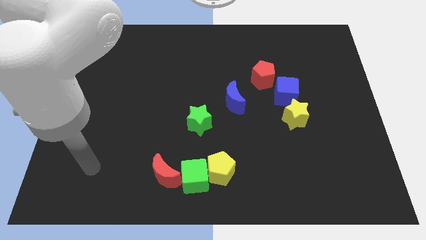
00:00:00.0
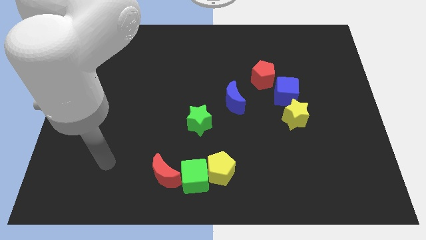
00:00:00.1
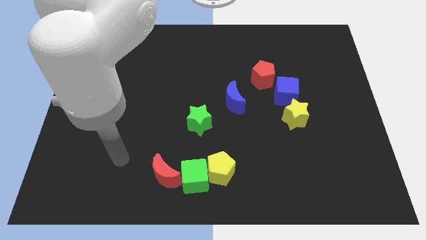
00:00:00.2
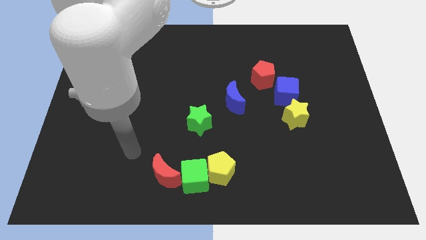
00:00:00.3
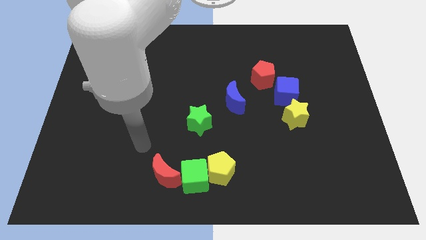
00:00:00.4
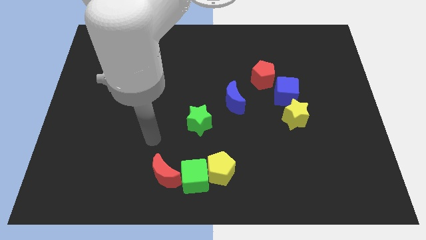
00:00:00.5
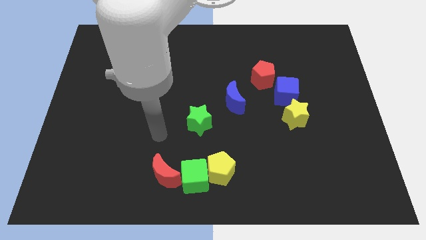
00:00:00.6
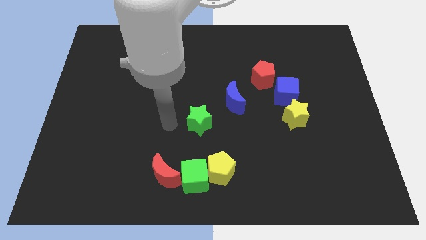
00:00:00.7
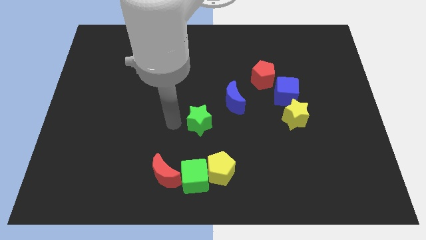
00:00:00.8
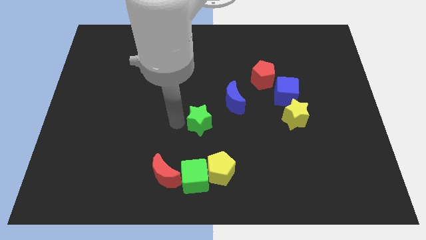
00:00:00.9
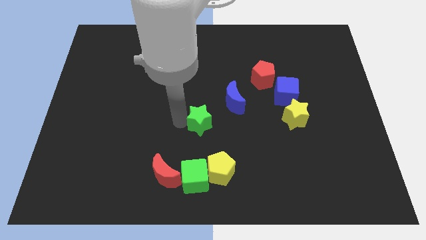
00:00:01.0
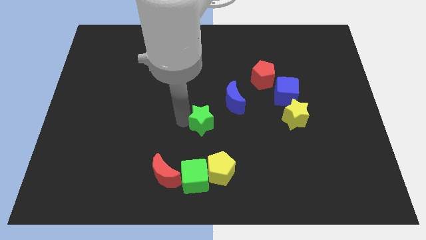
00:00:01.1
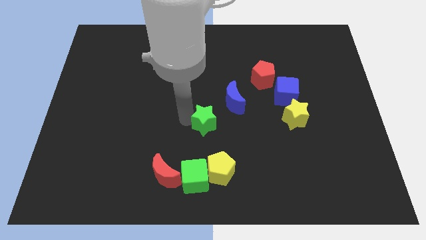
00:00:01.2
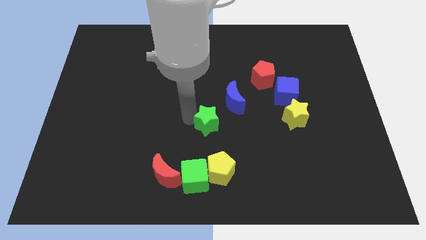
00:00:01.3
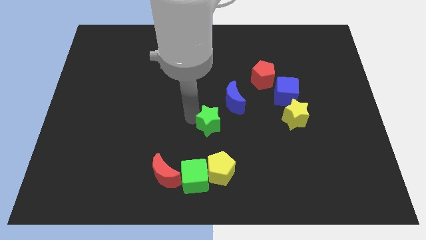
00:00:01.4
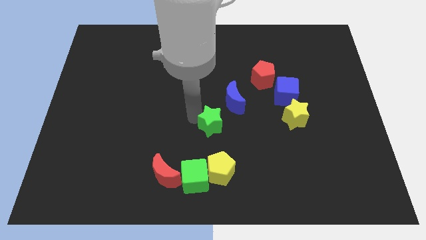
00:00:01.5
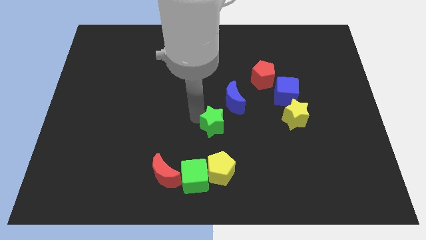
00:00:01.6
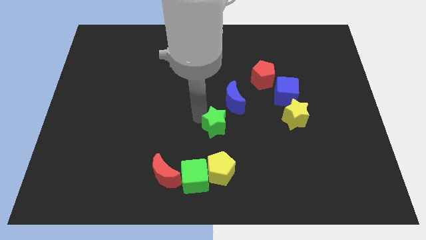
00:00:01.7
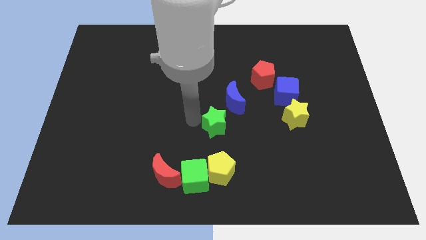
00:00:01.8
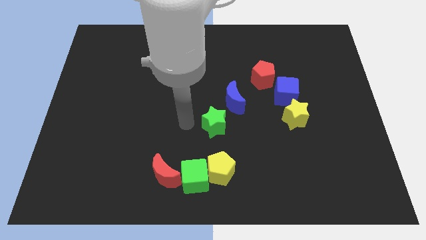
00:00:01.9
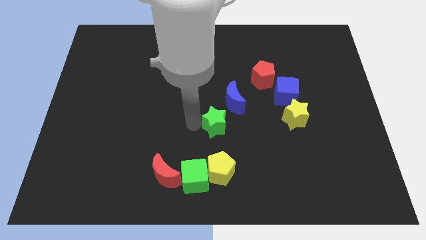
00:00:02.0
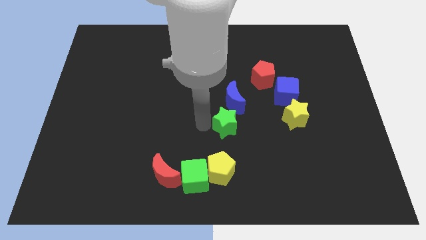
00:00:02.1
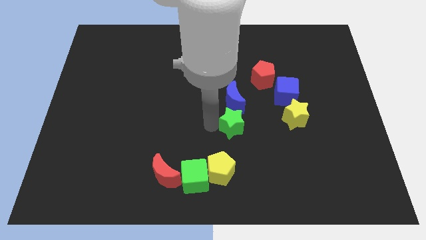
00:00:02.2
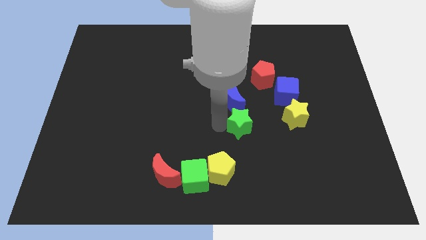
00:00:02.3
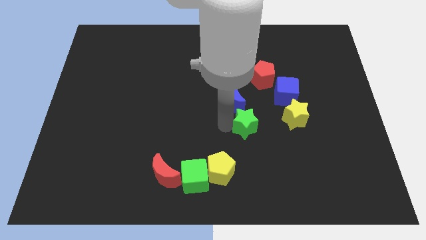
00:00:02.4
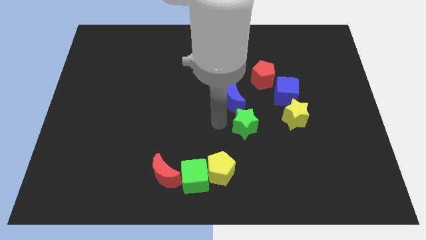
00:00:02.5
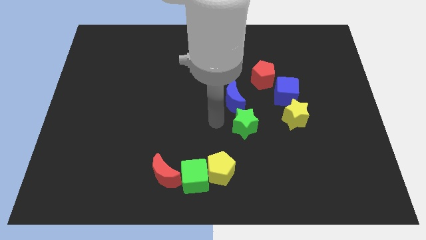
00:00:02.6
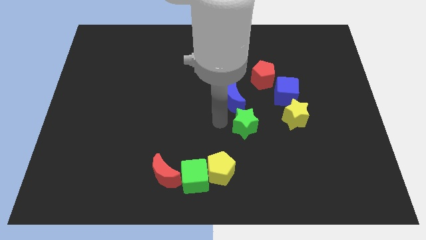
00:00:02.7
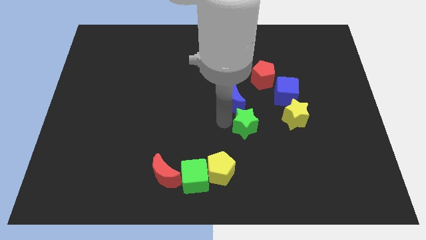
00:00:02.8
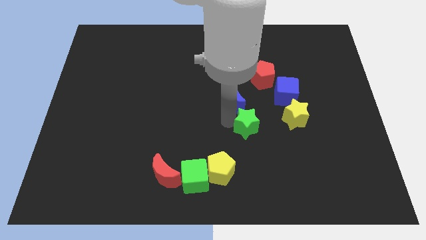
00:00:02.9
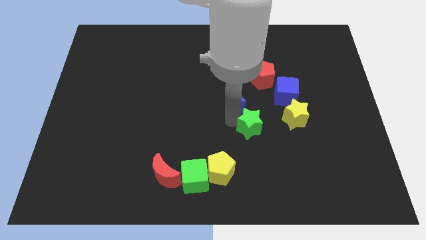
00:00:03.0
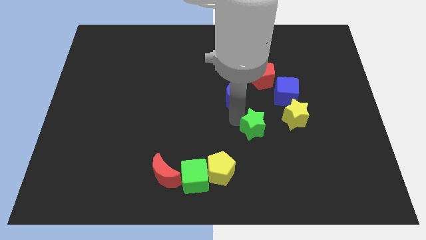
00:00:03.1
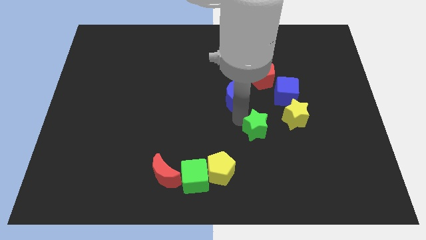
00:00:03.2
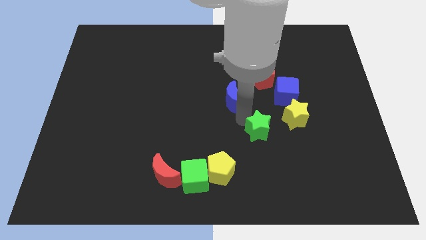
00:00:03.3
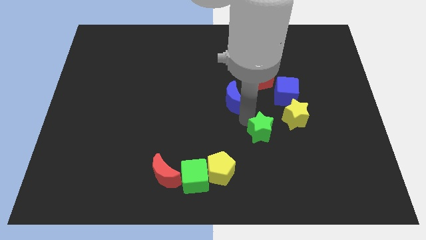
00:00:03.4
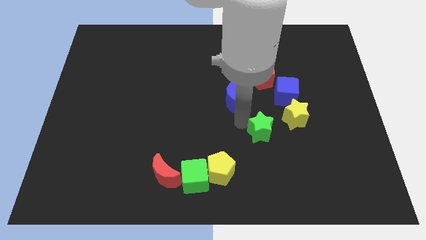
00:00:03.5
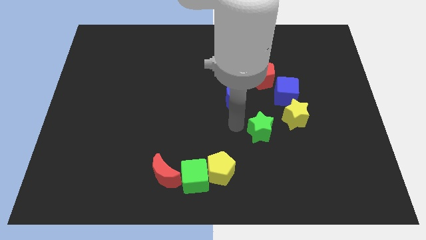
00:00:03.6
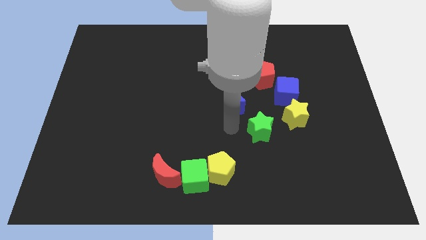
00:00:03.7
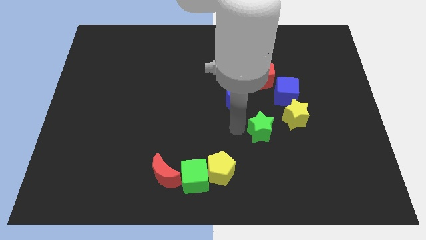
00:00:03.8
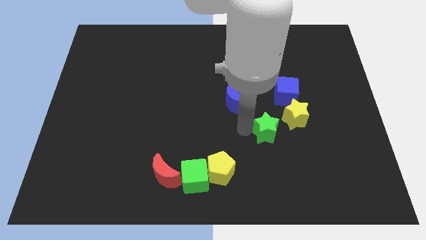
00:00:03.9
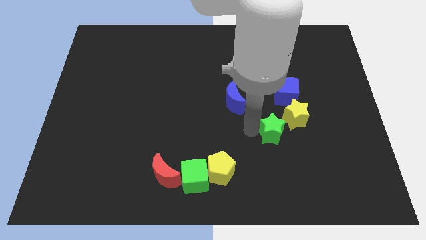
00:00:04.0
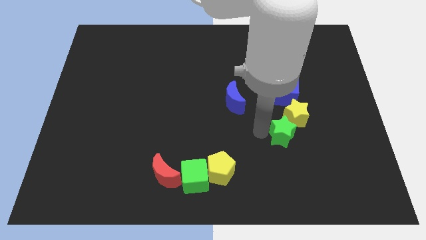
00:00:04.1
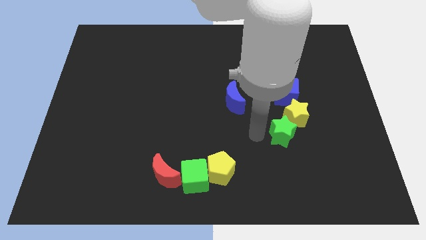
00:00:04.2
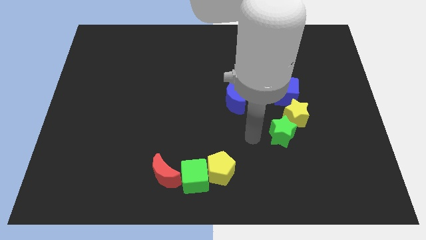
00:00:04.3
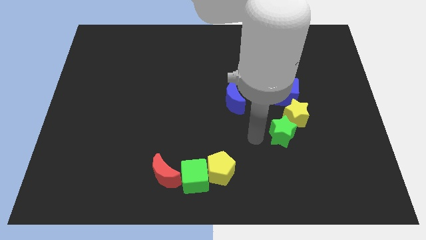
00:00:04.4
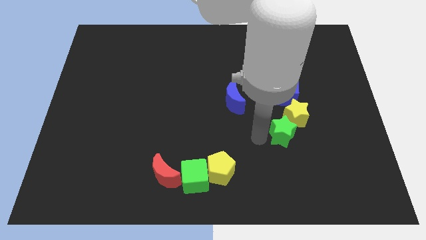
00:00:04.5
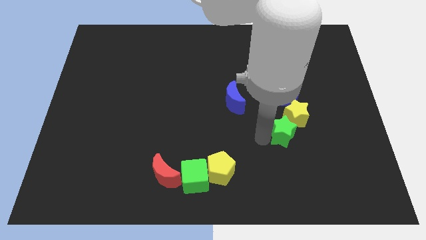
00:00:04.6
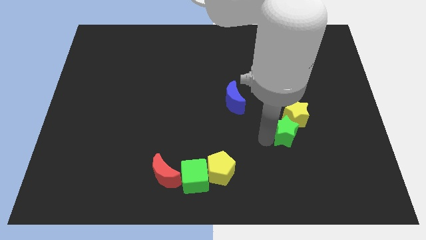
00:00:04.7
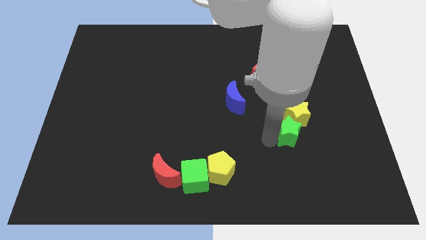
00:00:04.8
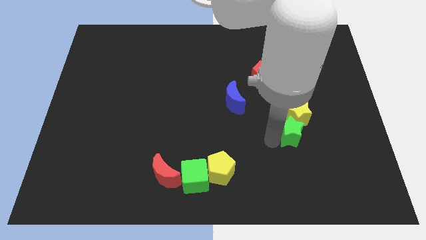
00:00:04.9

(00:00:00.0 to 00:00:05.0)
slide the green star to the right

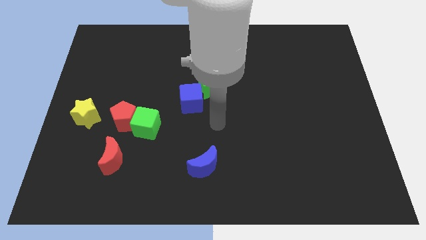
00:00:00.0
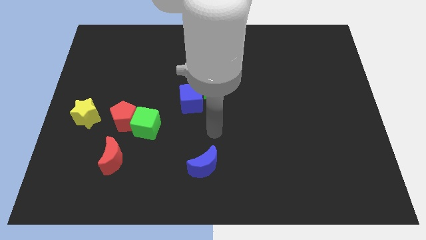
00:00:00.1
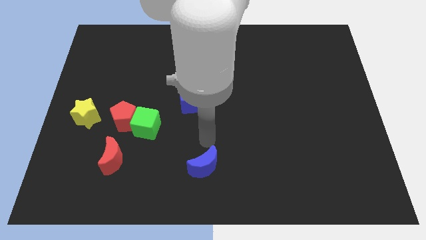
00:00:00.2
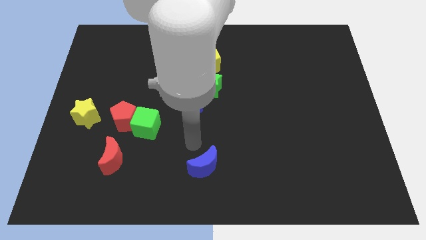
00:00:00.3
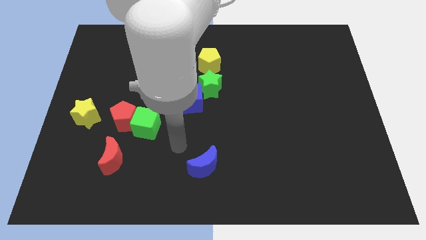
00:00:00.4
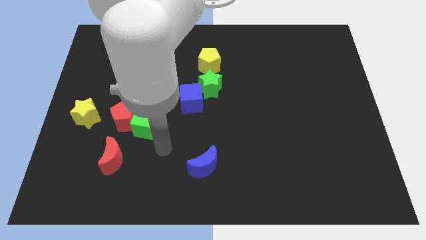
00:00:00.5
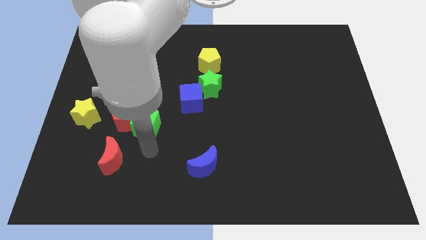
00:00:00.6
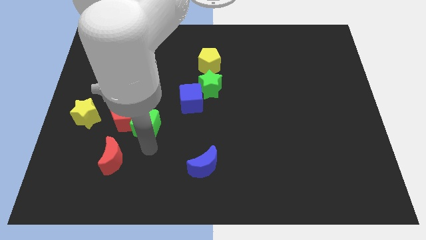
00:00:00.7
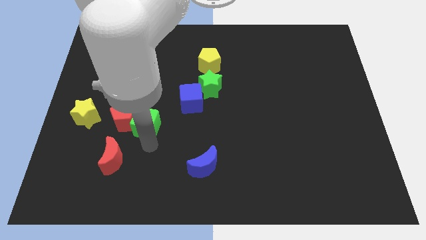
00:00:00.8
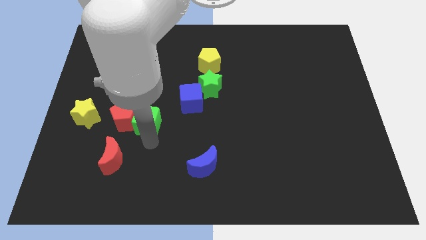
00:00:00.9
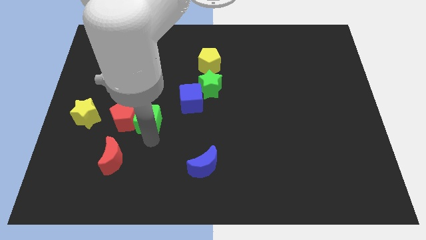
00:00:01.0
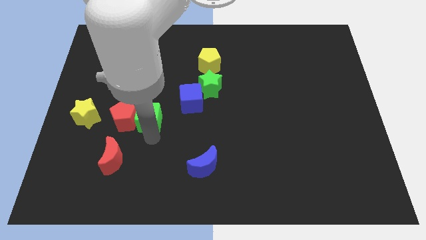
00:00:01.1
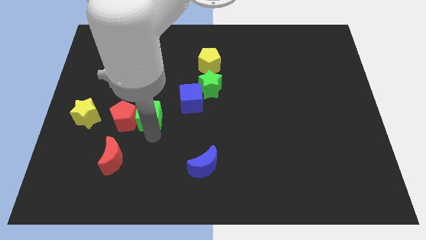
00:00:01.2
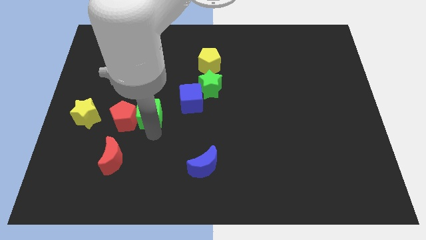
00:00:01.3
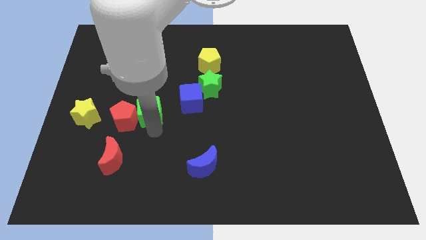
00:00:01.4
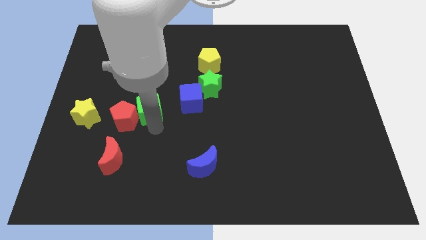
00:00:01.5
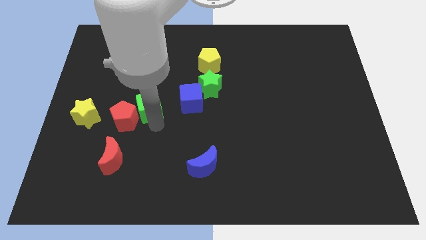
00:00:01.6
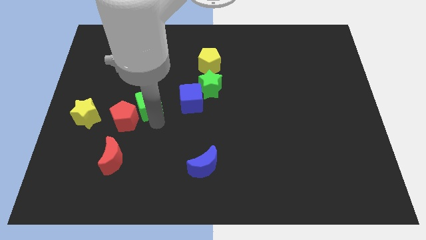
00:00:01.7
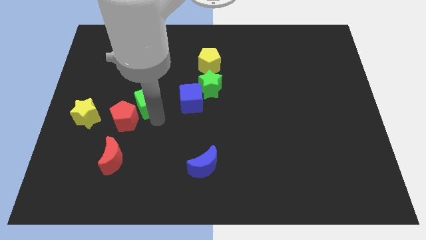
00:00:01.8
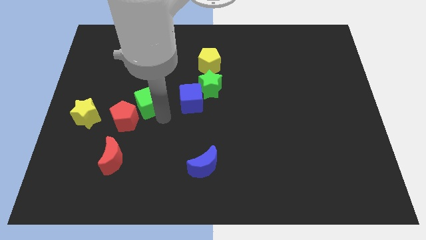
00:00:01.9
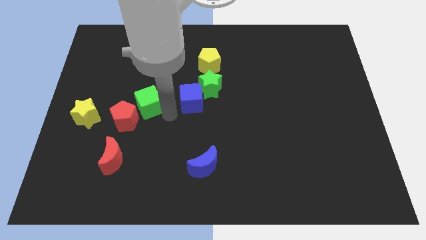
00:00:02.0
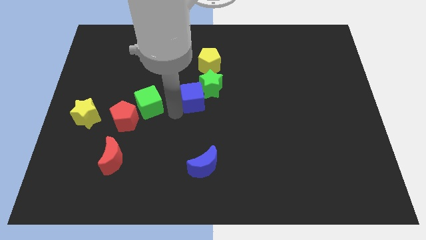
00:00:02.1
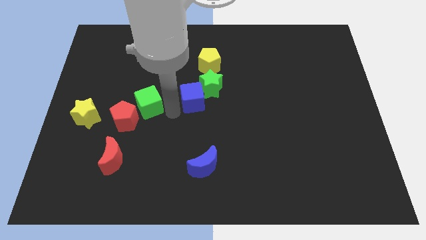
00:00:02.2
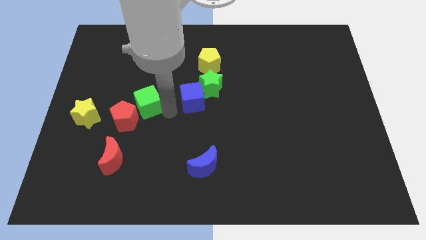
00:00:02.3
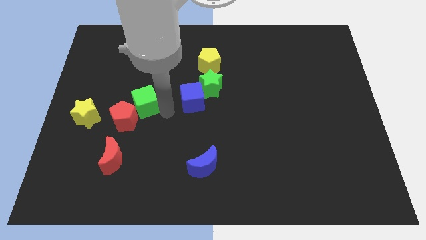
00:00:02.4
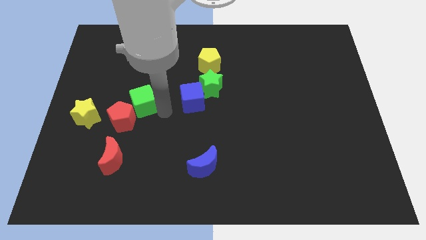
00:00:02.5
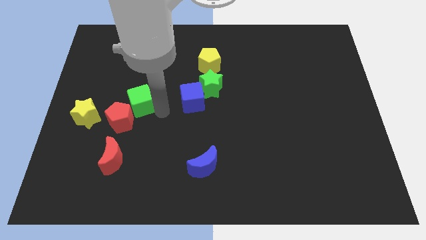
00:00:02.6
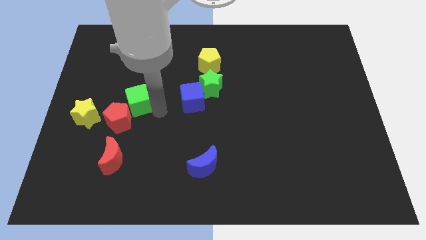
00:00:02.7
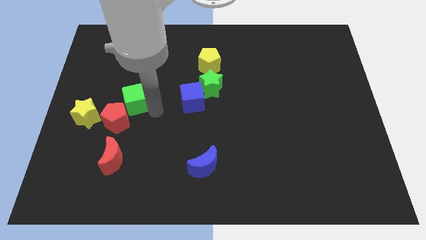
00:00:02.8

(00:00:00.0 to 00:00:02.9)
move the green cube diagonally up and left a little bit
